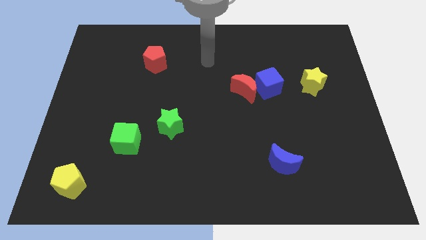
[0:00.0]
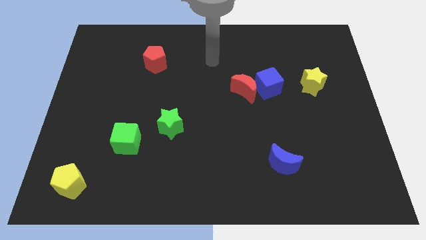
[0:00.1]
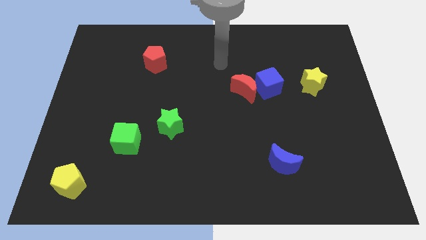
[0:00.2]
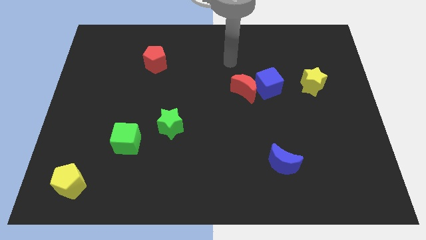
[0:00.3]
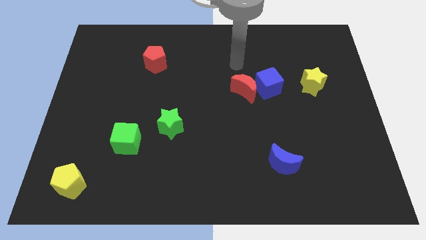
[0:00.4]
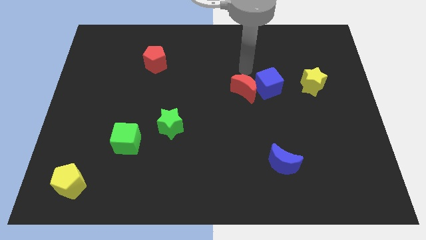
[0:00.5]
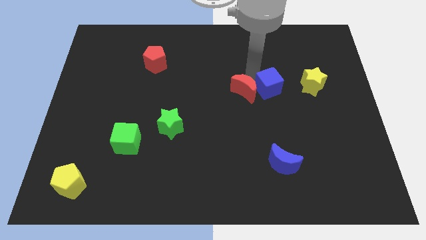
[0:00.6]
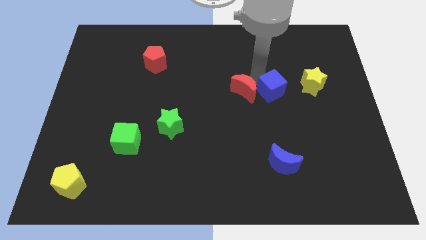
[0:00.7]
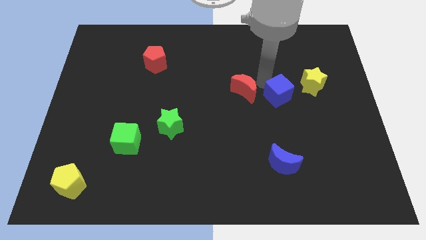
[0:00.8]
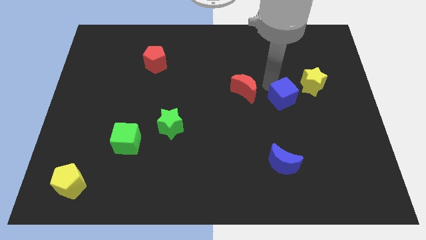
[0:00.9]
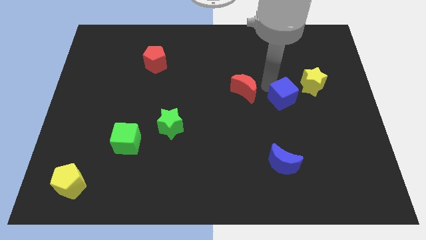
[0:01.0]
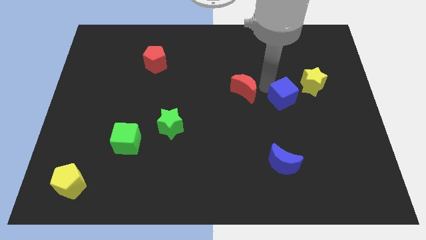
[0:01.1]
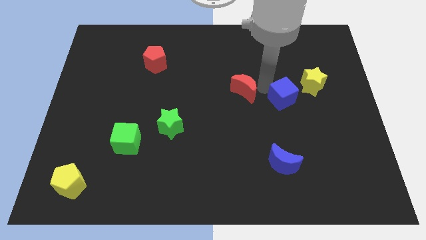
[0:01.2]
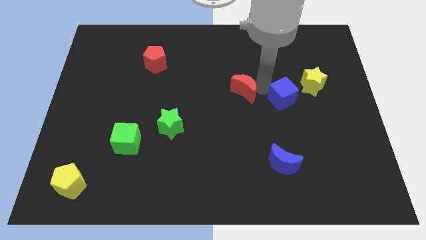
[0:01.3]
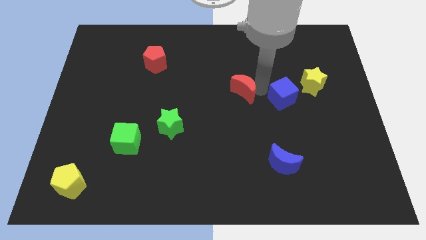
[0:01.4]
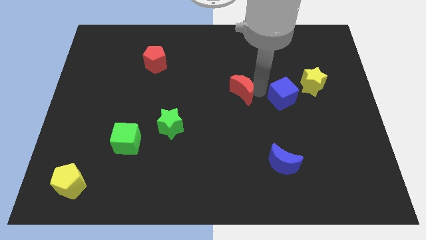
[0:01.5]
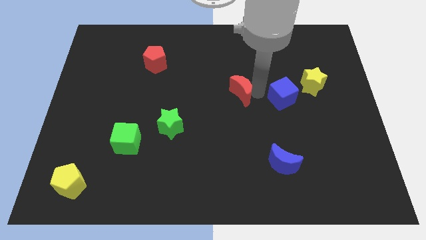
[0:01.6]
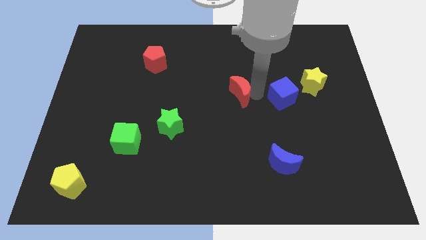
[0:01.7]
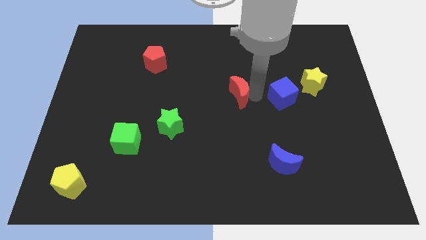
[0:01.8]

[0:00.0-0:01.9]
pull the red moon apart from the blue cube

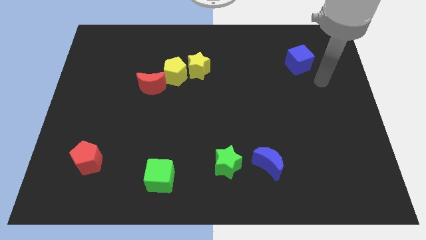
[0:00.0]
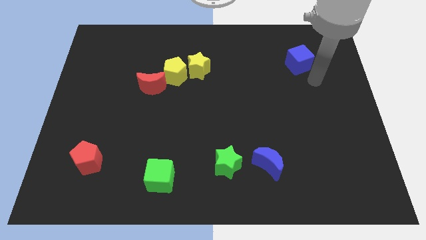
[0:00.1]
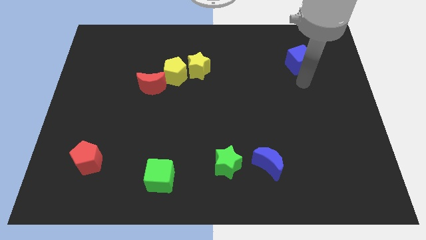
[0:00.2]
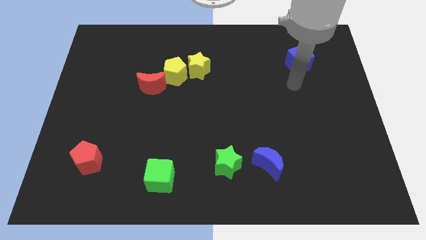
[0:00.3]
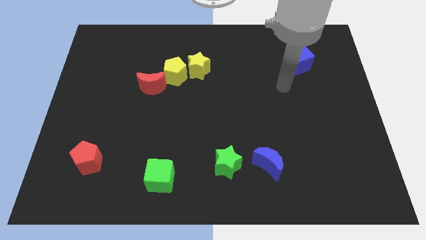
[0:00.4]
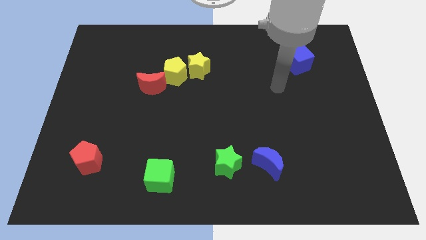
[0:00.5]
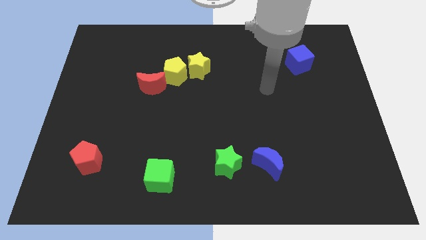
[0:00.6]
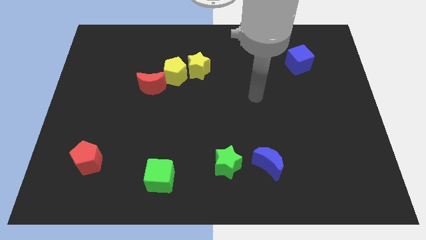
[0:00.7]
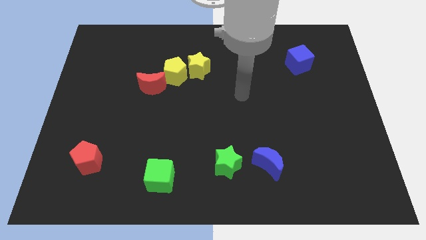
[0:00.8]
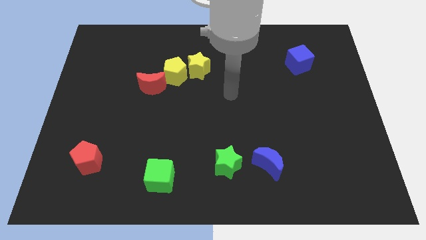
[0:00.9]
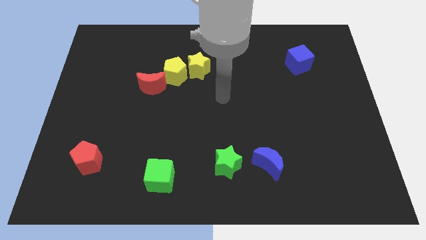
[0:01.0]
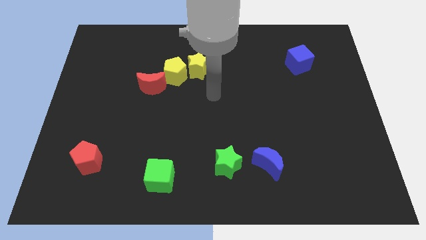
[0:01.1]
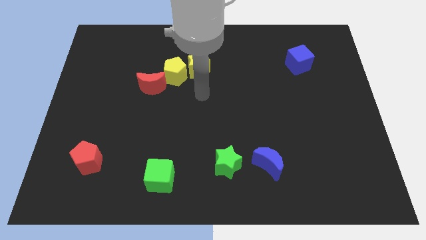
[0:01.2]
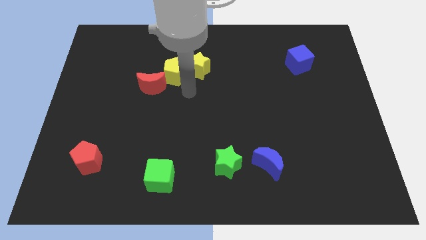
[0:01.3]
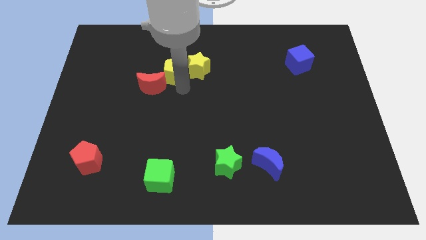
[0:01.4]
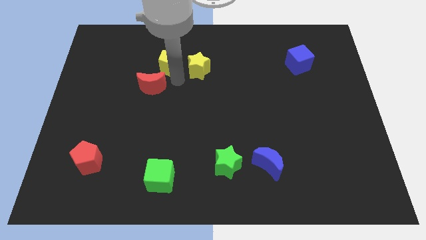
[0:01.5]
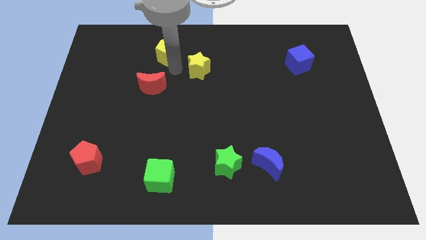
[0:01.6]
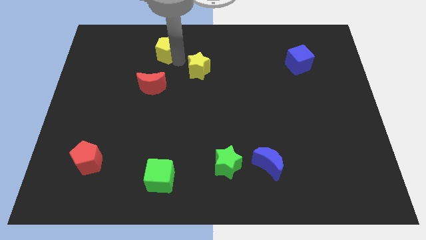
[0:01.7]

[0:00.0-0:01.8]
pull the yellow star apart from the yellow pentagon

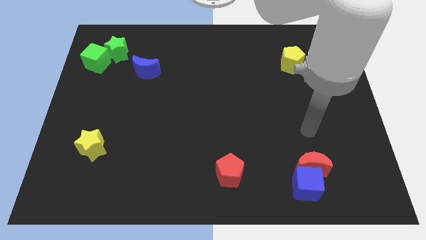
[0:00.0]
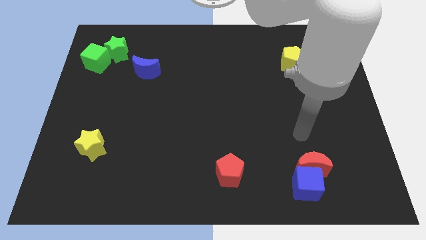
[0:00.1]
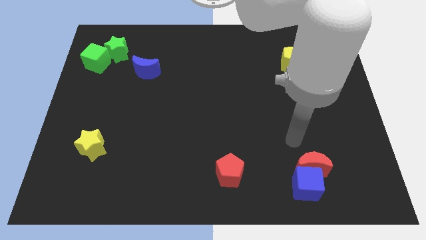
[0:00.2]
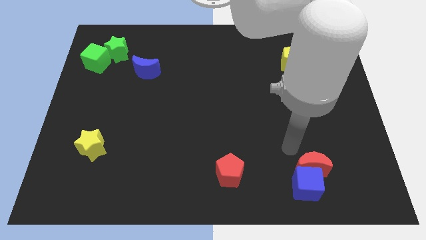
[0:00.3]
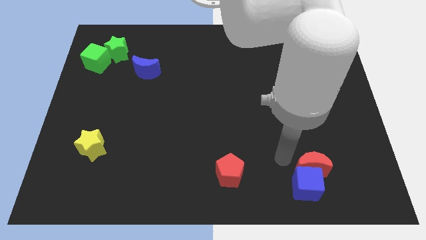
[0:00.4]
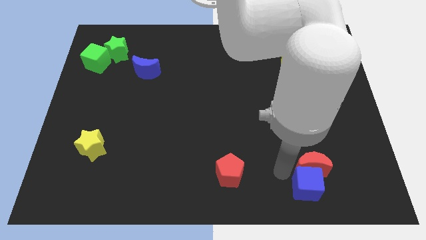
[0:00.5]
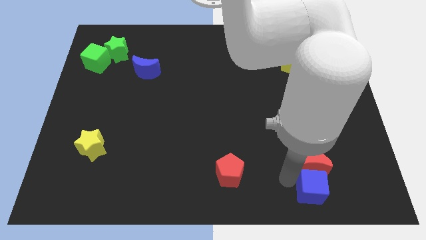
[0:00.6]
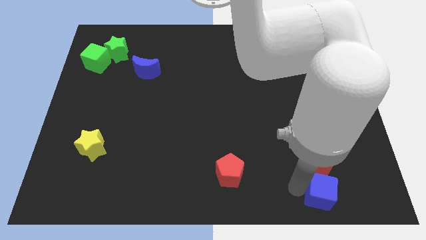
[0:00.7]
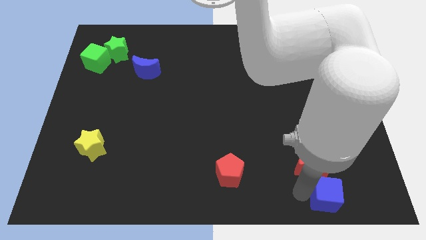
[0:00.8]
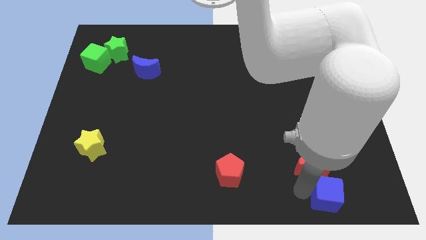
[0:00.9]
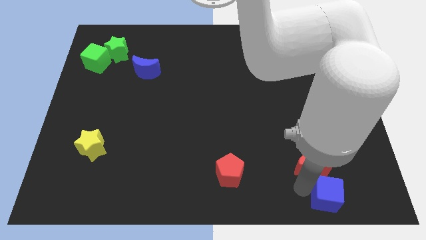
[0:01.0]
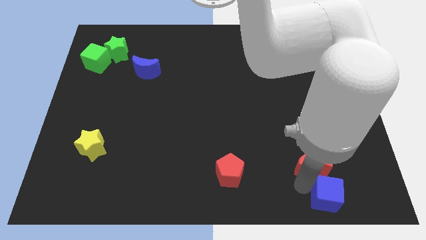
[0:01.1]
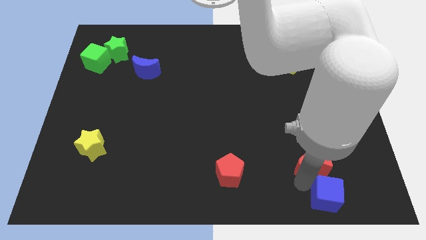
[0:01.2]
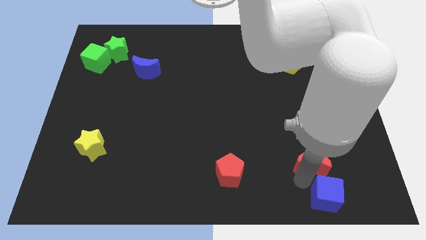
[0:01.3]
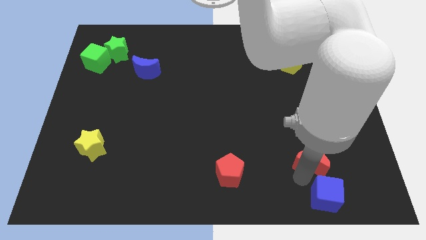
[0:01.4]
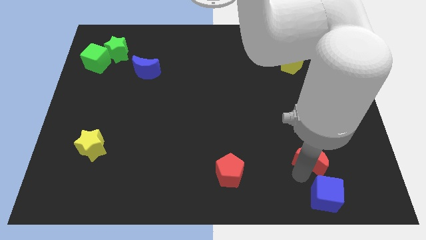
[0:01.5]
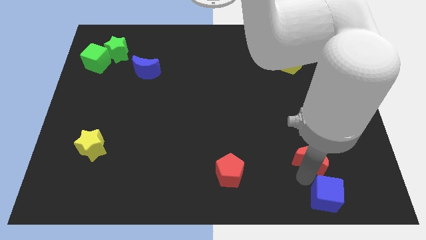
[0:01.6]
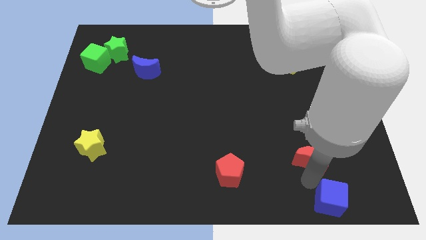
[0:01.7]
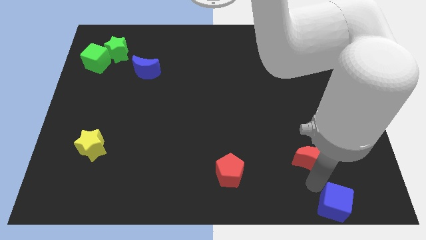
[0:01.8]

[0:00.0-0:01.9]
move the red moon away from the blue cube

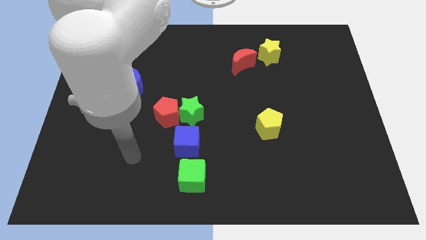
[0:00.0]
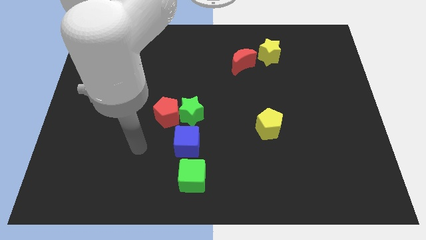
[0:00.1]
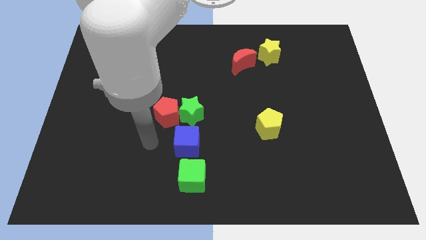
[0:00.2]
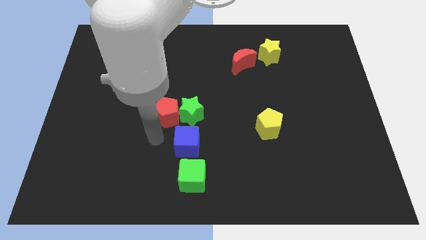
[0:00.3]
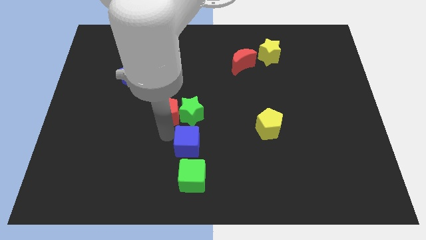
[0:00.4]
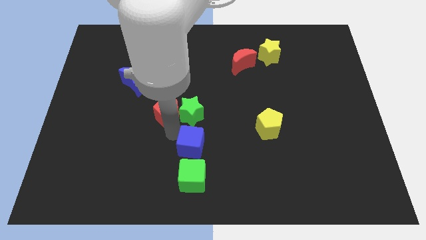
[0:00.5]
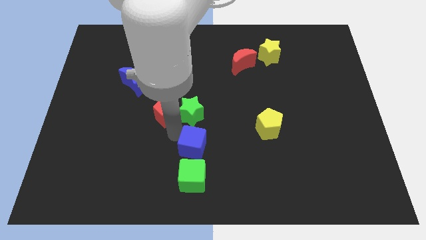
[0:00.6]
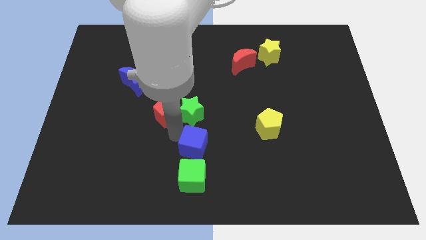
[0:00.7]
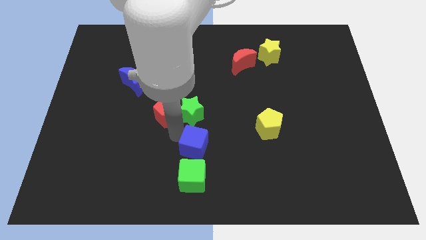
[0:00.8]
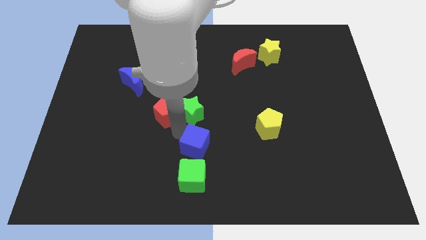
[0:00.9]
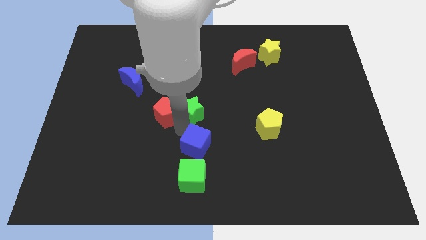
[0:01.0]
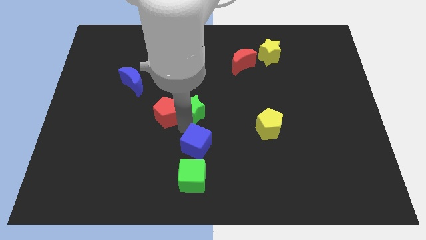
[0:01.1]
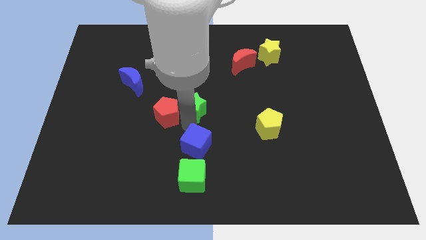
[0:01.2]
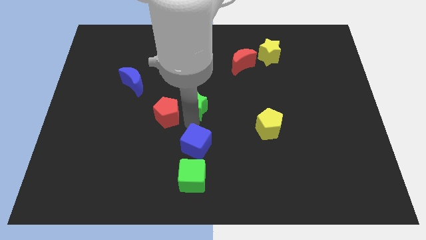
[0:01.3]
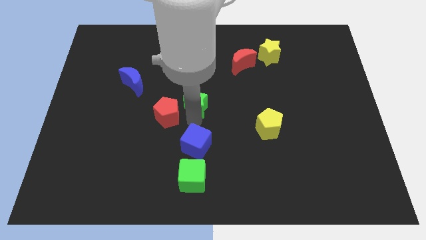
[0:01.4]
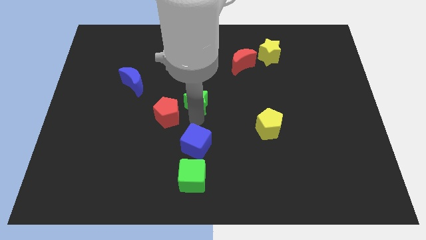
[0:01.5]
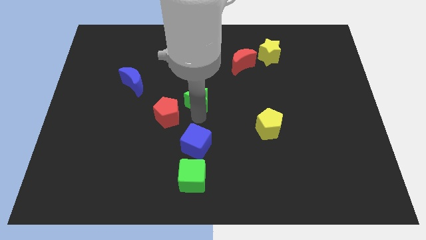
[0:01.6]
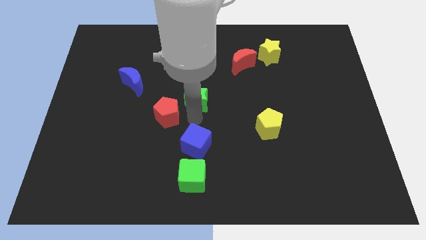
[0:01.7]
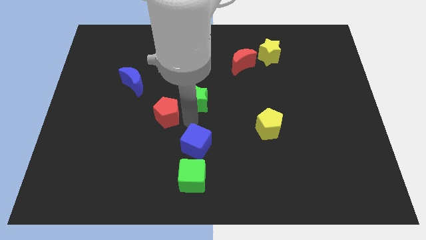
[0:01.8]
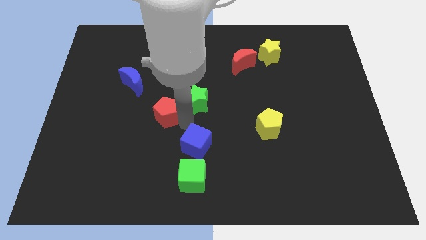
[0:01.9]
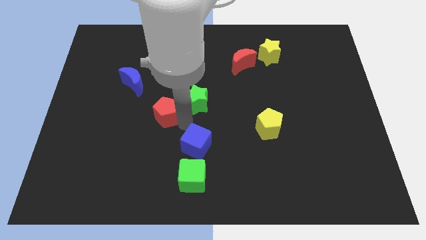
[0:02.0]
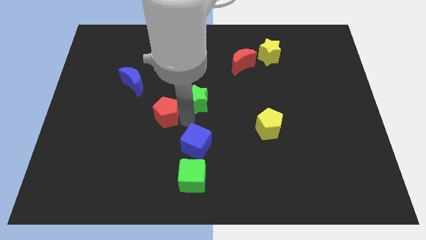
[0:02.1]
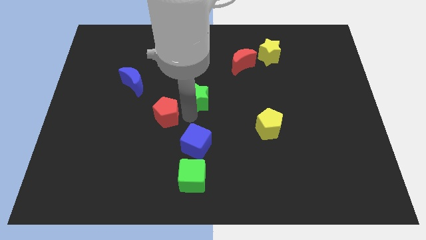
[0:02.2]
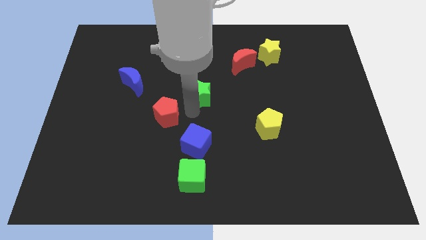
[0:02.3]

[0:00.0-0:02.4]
pull the green star apart from the red pentagon and blue cube

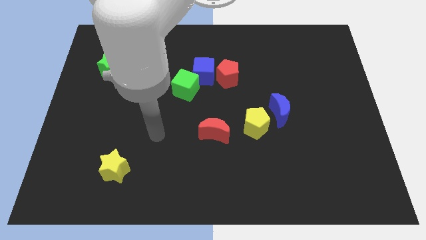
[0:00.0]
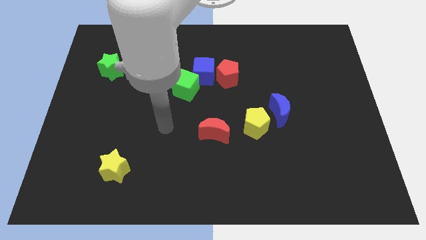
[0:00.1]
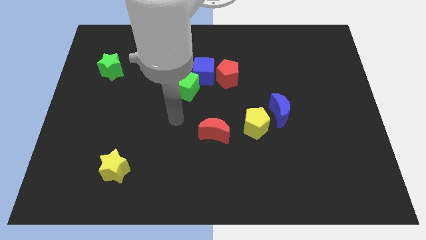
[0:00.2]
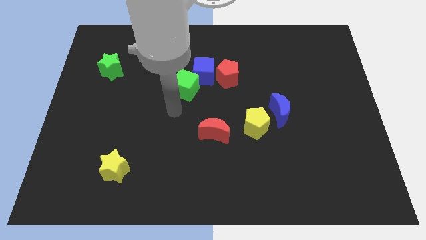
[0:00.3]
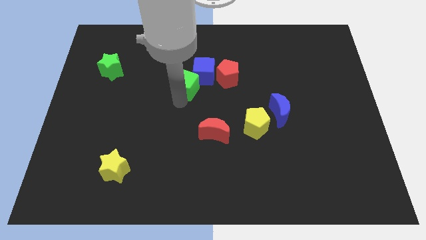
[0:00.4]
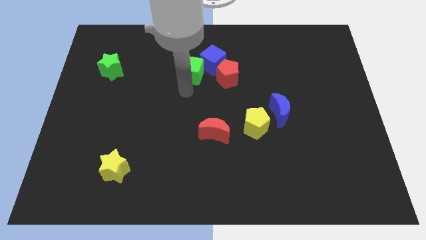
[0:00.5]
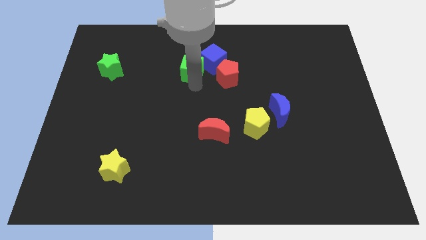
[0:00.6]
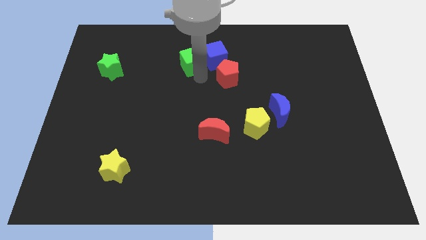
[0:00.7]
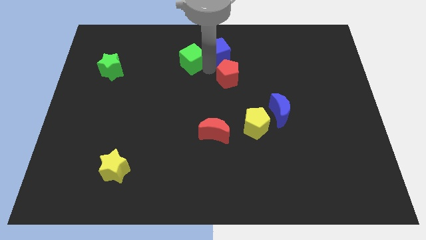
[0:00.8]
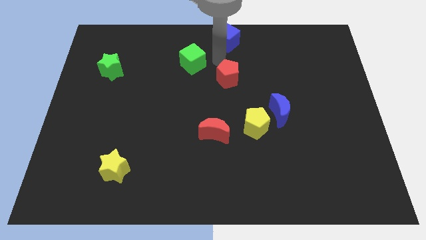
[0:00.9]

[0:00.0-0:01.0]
separate the red pentagon from the blue cube

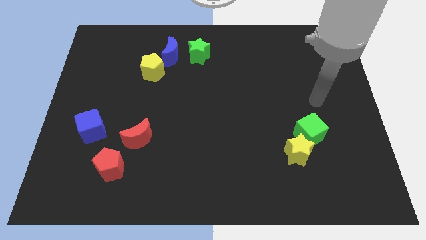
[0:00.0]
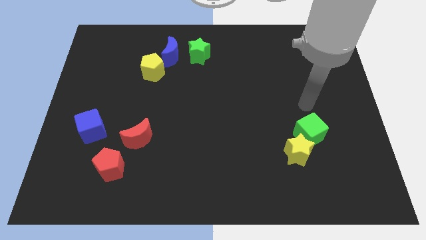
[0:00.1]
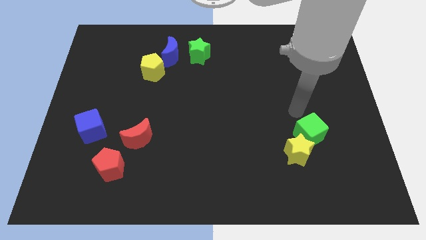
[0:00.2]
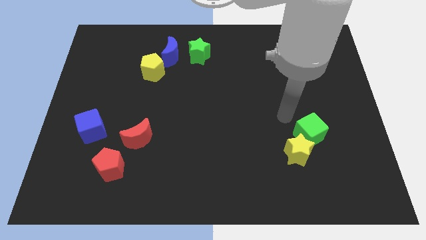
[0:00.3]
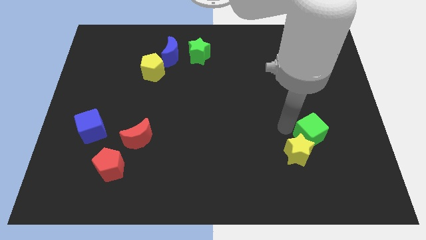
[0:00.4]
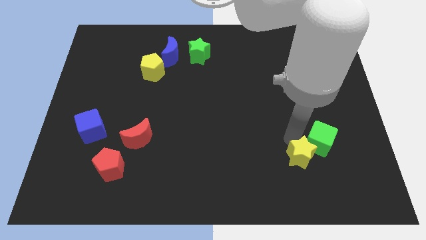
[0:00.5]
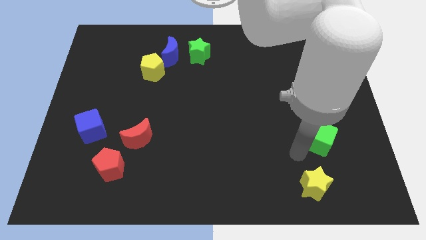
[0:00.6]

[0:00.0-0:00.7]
pull the green cube apart from the yellow star
